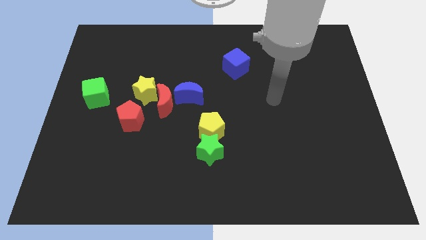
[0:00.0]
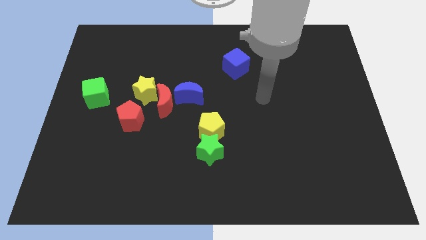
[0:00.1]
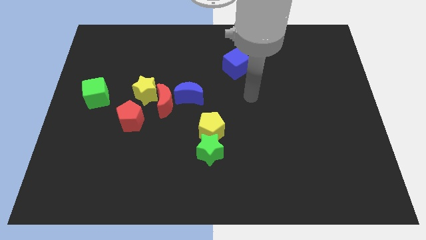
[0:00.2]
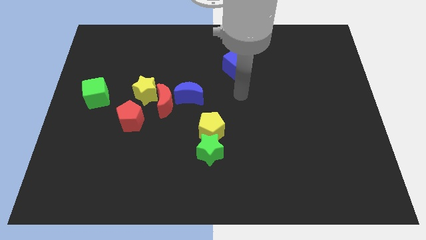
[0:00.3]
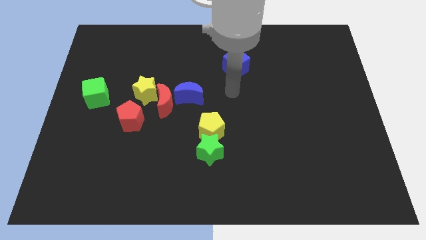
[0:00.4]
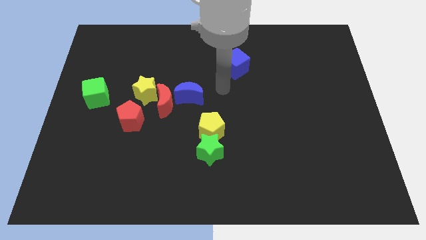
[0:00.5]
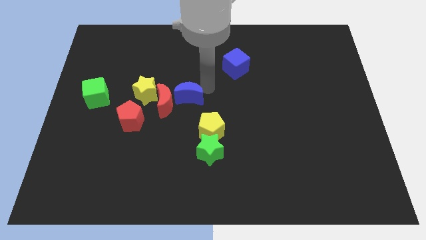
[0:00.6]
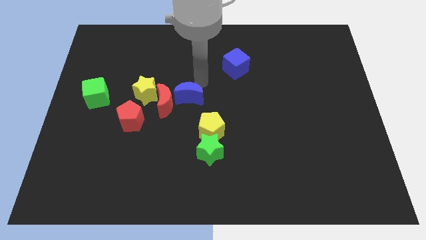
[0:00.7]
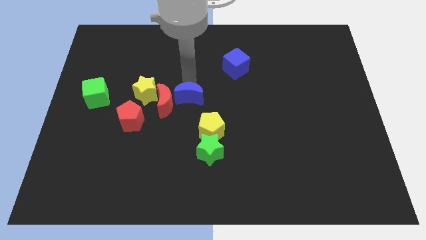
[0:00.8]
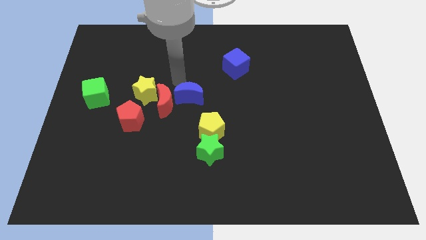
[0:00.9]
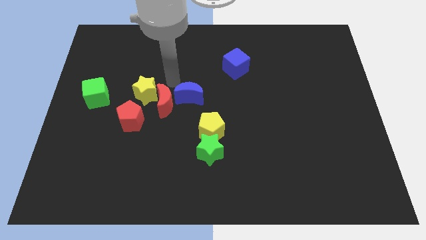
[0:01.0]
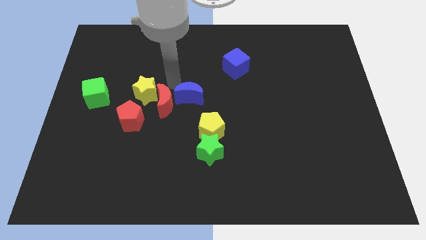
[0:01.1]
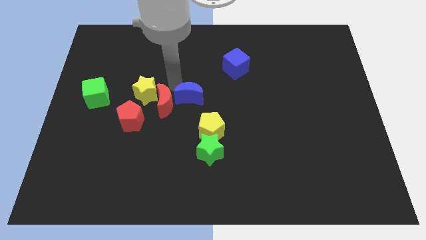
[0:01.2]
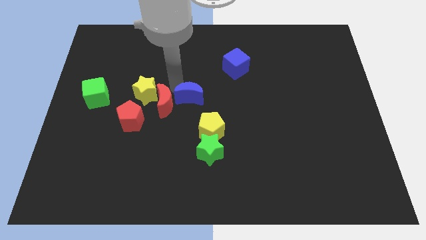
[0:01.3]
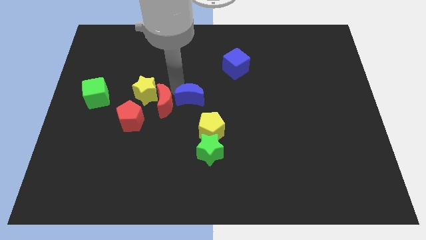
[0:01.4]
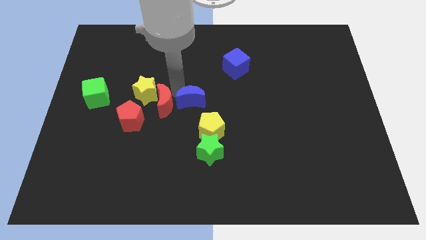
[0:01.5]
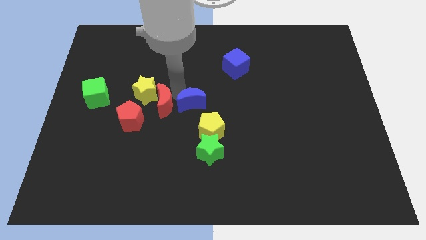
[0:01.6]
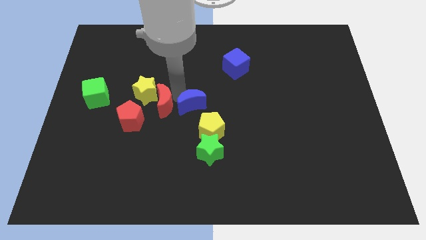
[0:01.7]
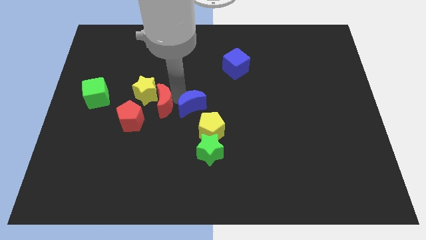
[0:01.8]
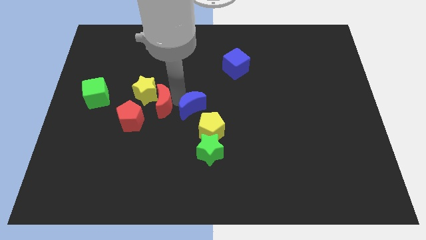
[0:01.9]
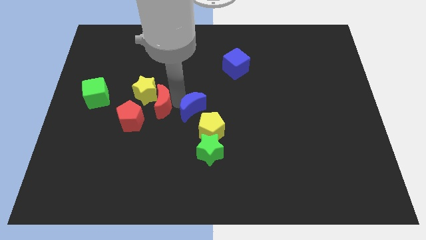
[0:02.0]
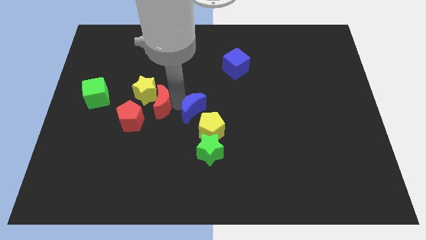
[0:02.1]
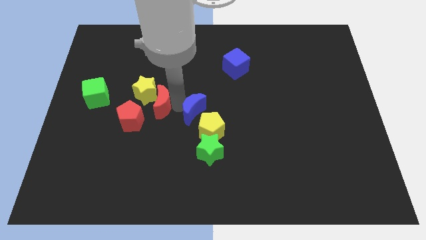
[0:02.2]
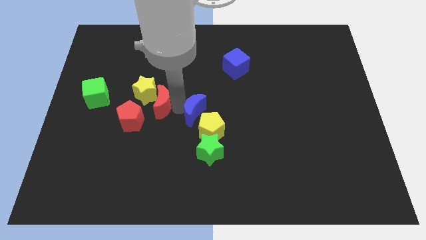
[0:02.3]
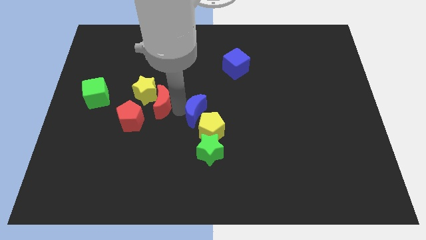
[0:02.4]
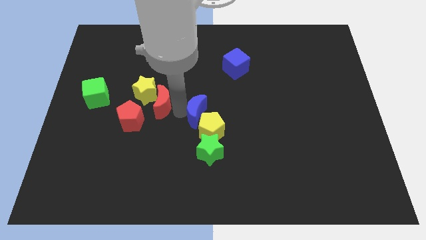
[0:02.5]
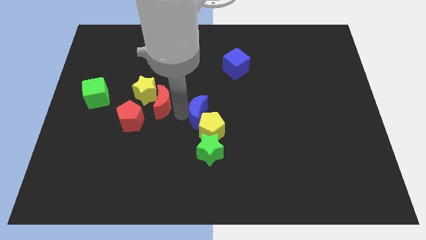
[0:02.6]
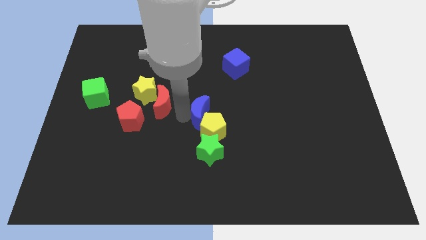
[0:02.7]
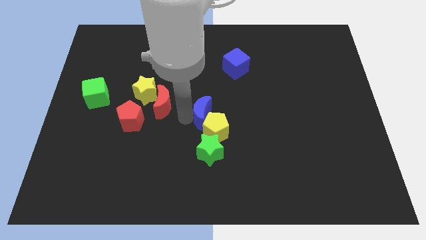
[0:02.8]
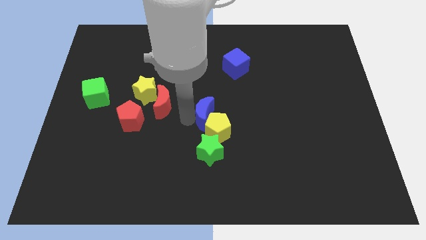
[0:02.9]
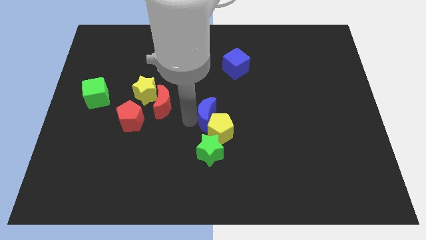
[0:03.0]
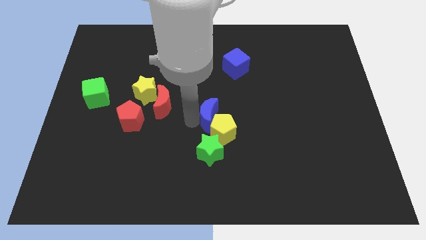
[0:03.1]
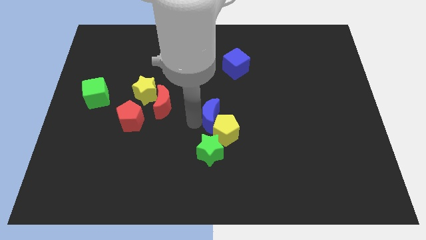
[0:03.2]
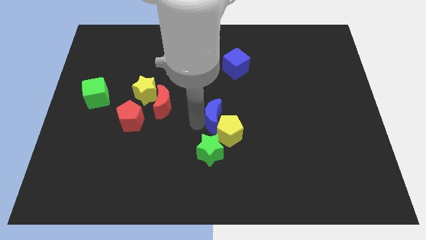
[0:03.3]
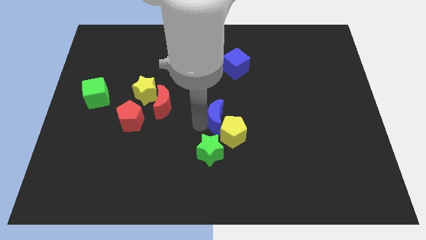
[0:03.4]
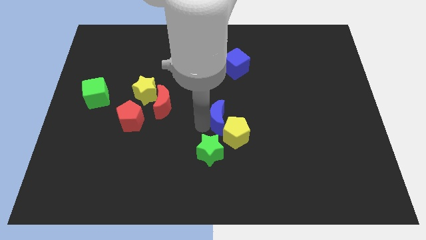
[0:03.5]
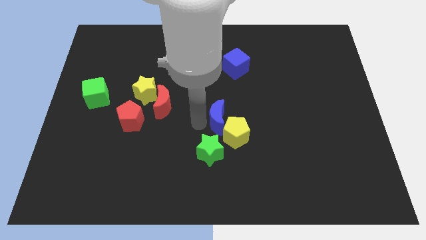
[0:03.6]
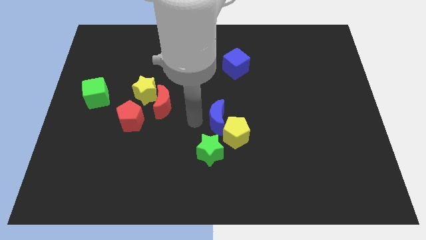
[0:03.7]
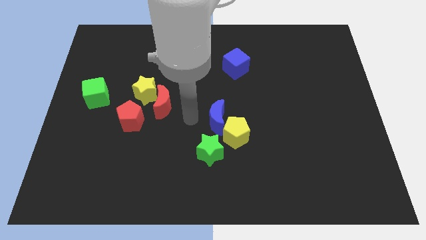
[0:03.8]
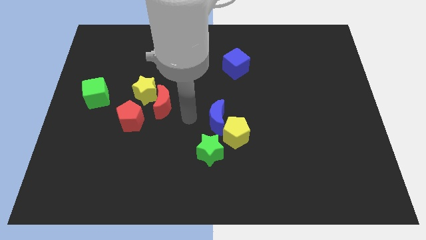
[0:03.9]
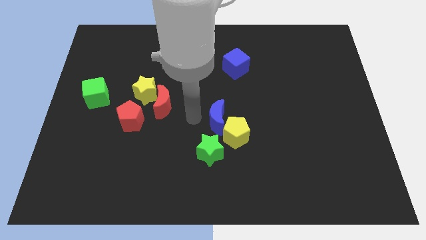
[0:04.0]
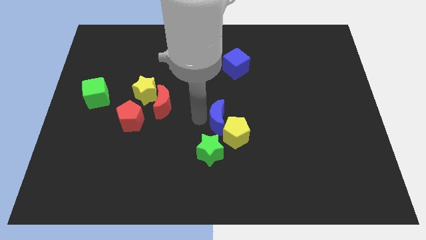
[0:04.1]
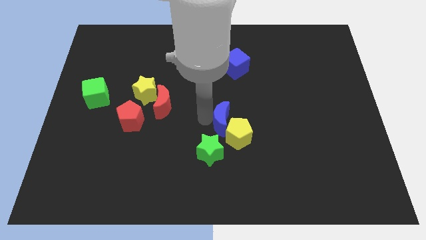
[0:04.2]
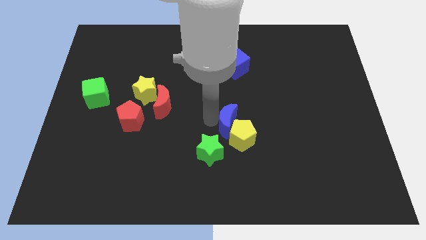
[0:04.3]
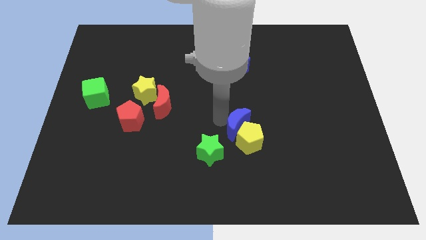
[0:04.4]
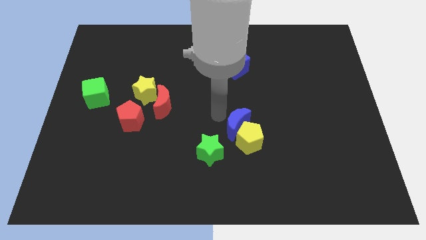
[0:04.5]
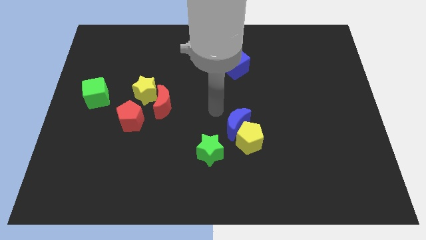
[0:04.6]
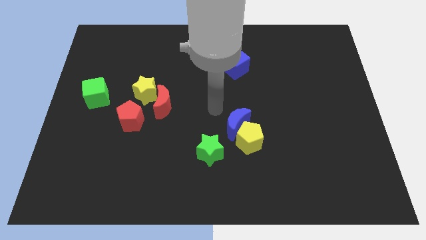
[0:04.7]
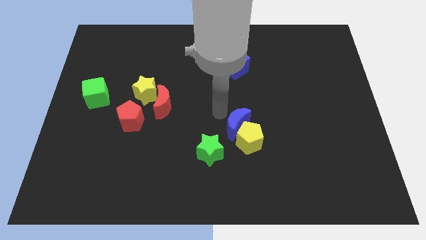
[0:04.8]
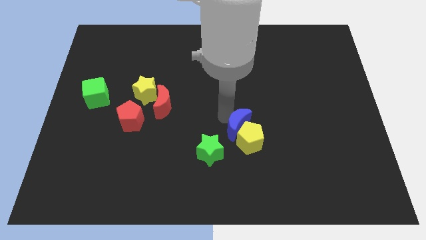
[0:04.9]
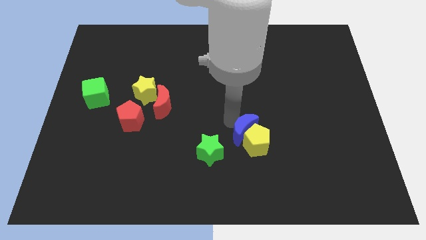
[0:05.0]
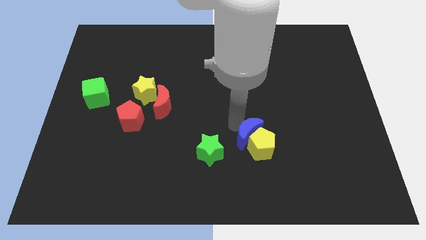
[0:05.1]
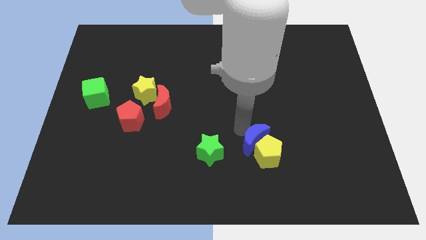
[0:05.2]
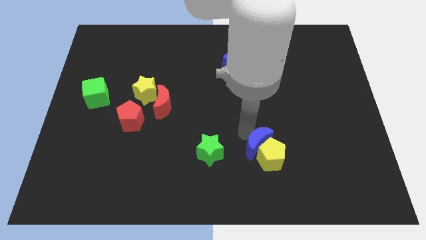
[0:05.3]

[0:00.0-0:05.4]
slide the blue moon diagonally down and to the right

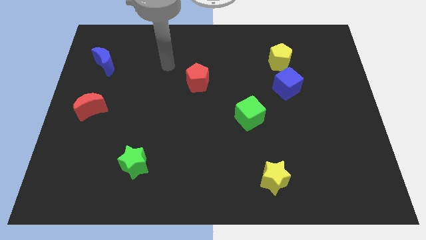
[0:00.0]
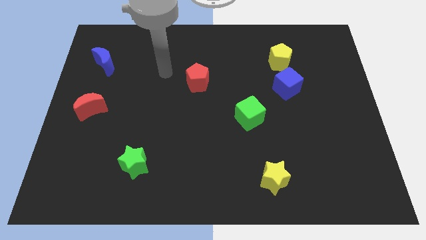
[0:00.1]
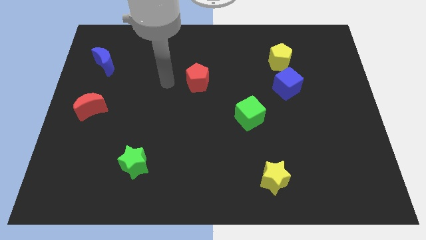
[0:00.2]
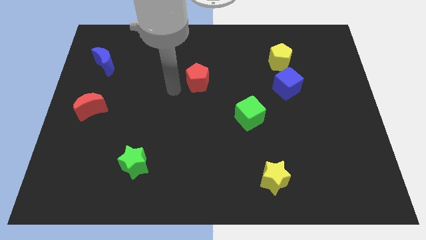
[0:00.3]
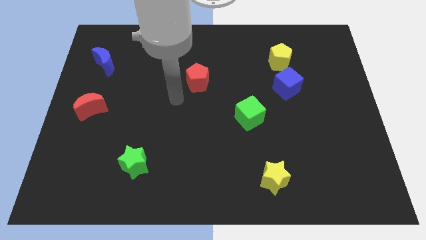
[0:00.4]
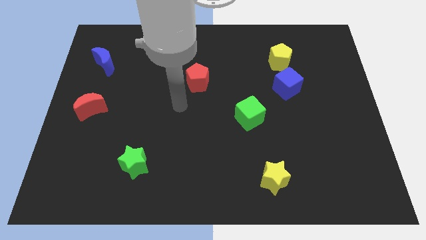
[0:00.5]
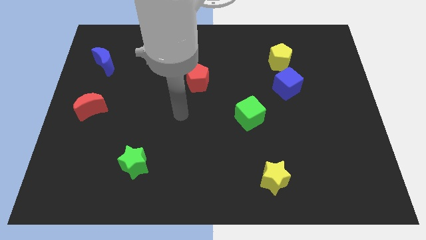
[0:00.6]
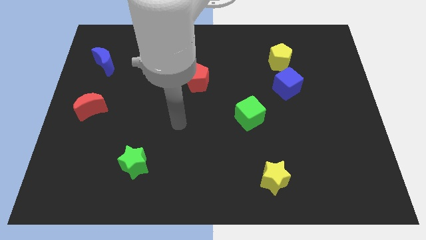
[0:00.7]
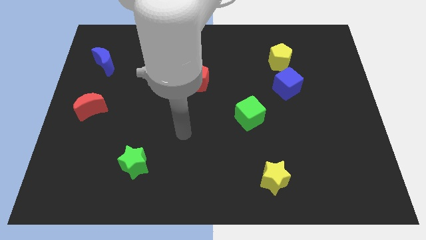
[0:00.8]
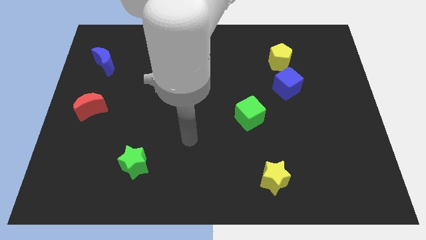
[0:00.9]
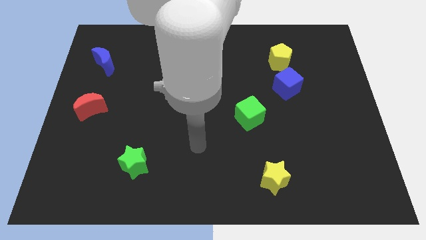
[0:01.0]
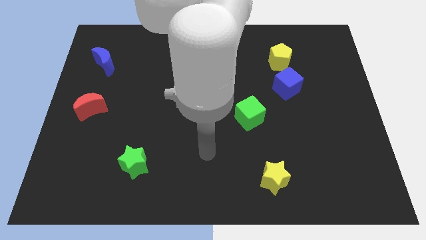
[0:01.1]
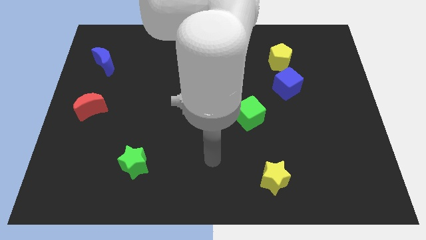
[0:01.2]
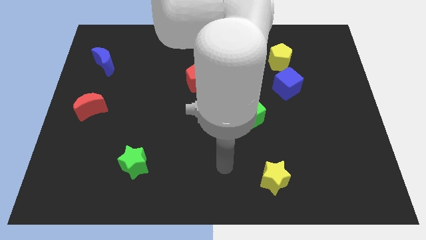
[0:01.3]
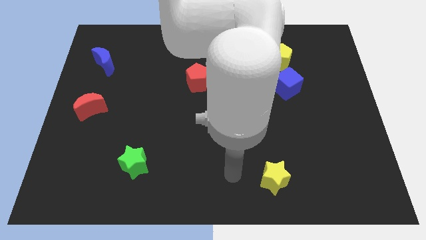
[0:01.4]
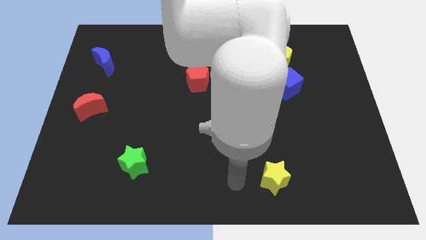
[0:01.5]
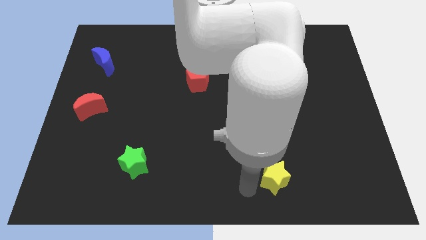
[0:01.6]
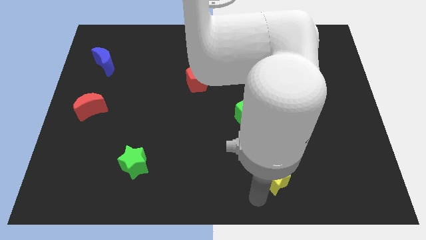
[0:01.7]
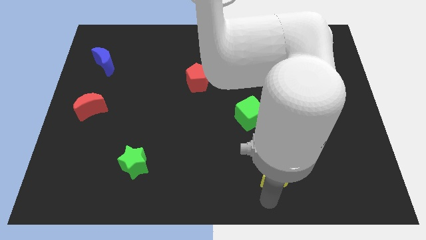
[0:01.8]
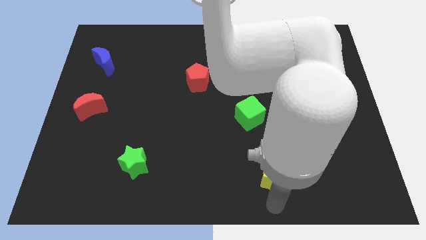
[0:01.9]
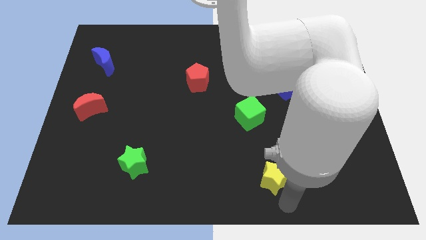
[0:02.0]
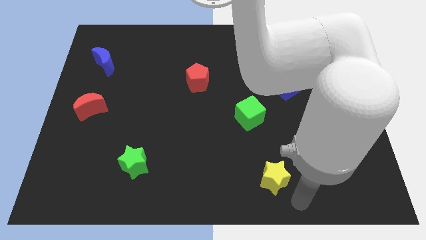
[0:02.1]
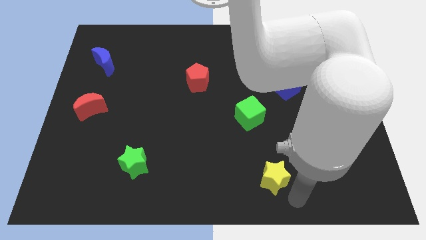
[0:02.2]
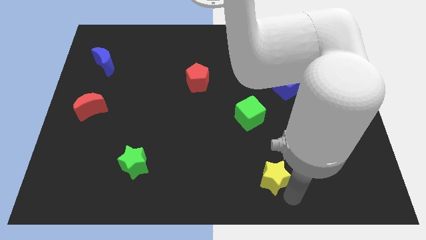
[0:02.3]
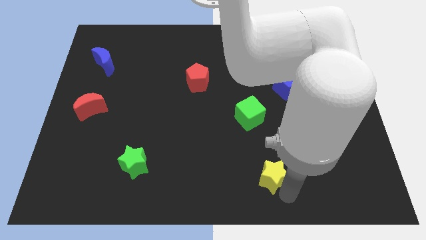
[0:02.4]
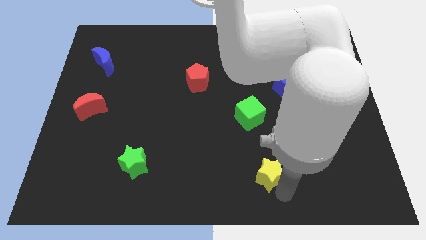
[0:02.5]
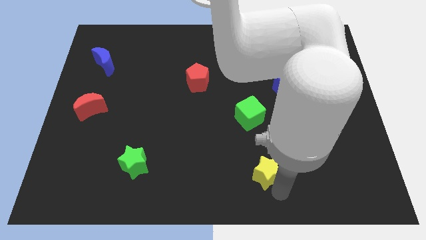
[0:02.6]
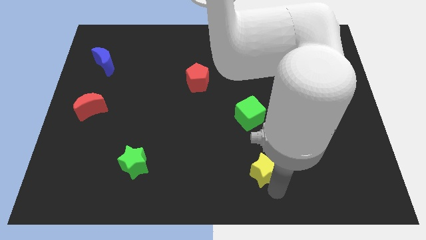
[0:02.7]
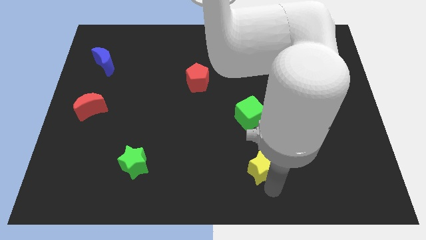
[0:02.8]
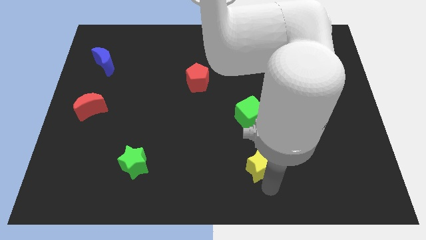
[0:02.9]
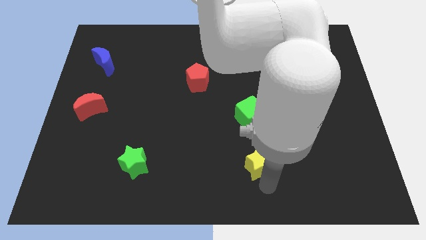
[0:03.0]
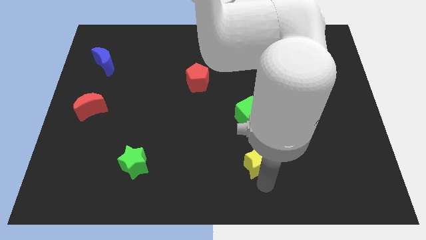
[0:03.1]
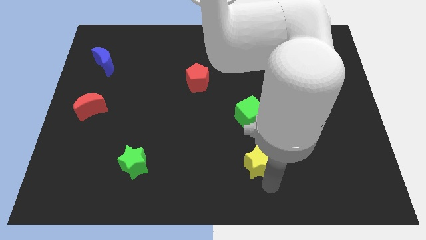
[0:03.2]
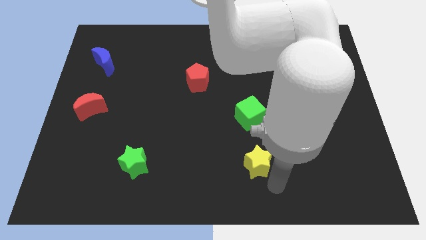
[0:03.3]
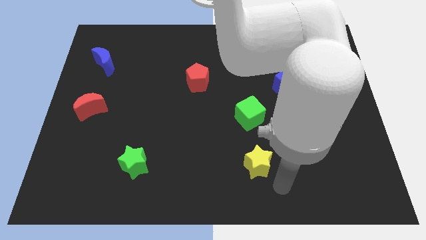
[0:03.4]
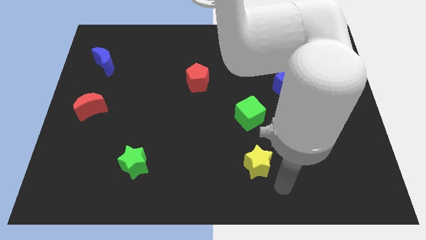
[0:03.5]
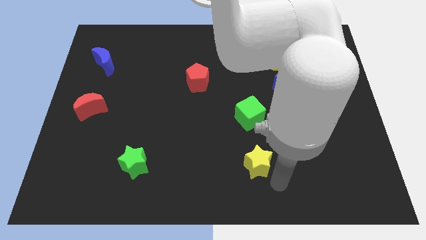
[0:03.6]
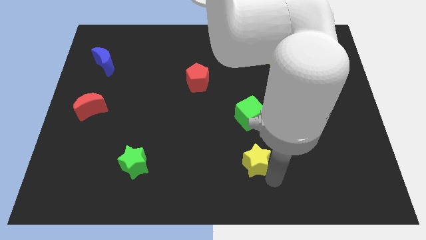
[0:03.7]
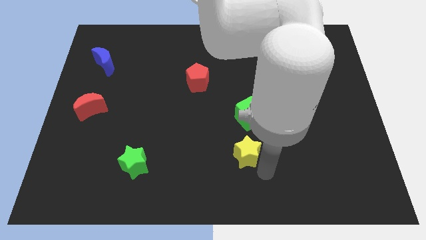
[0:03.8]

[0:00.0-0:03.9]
slightly push the yellow star upwards and left
